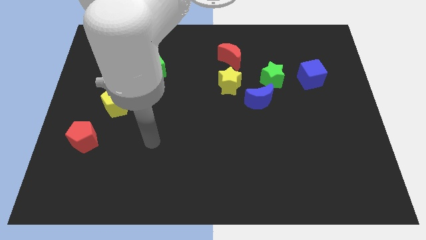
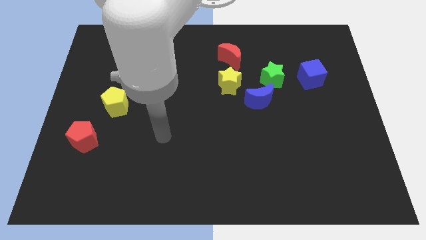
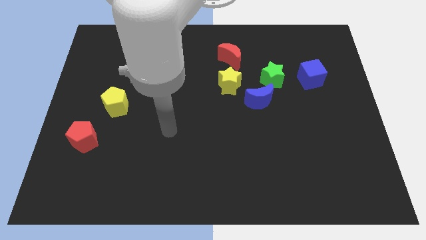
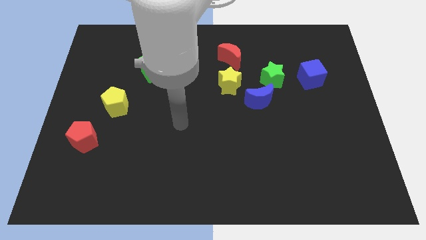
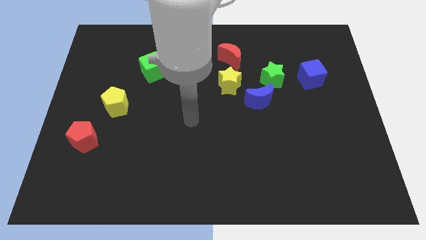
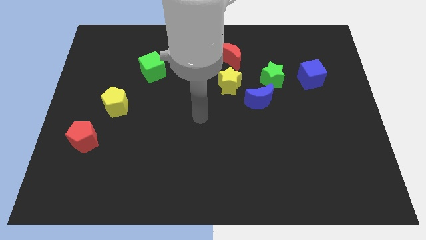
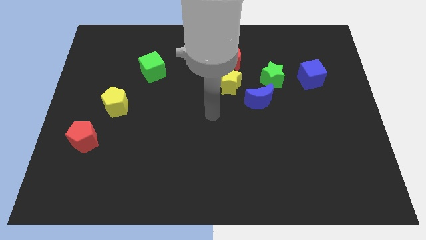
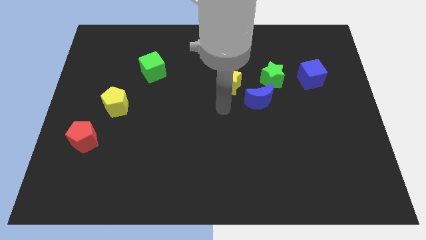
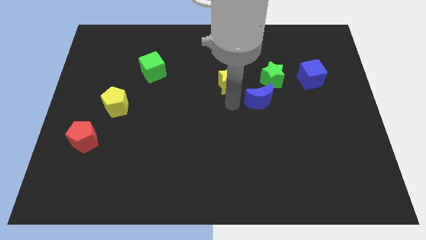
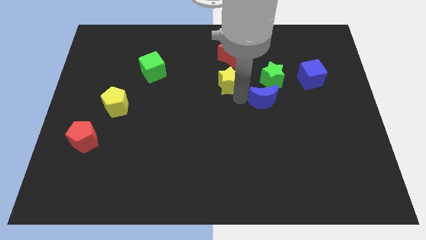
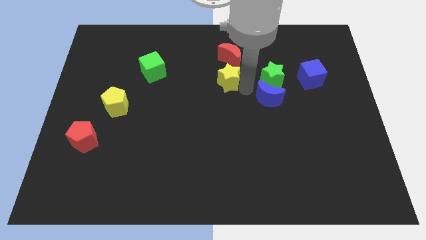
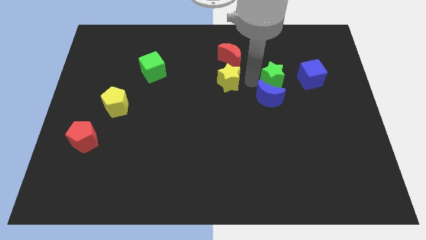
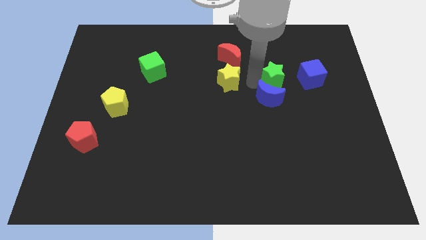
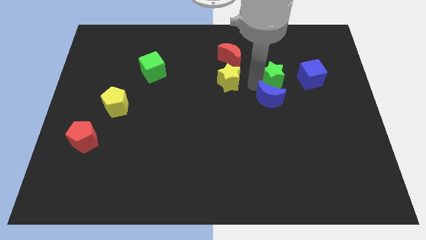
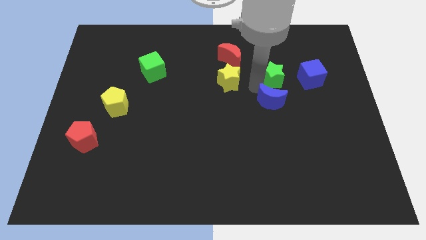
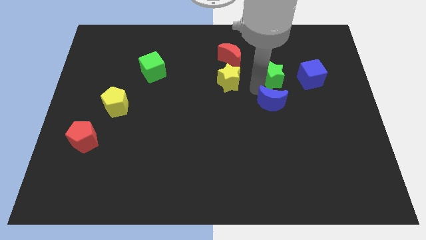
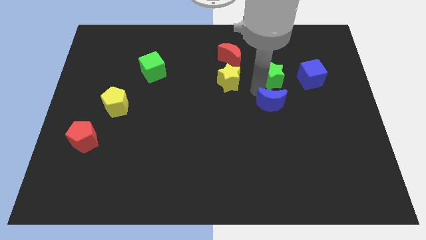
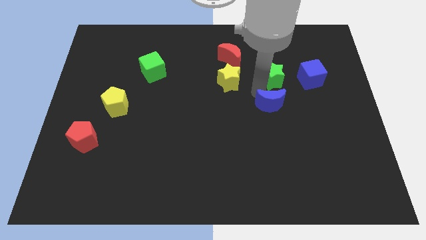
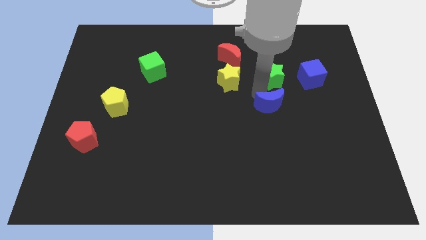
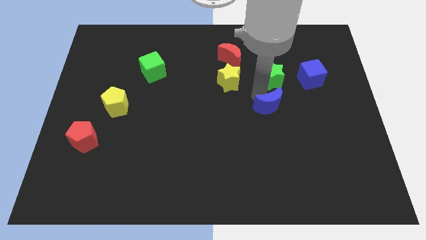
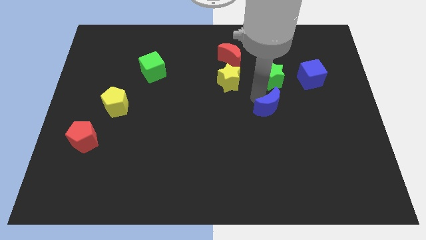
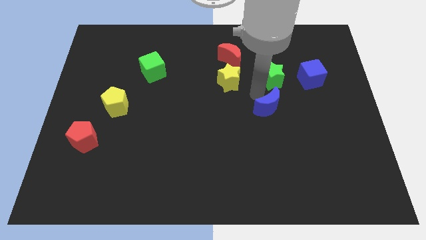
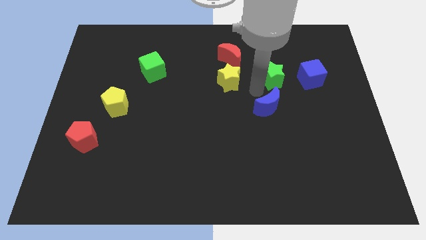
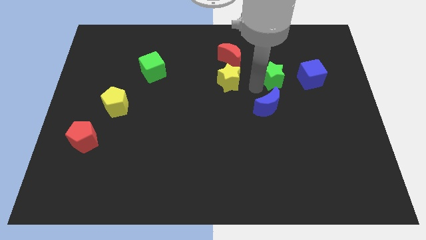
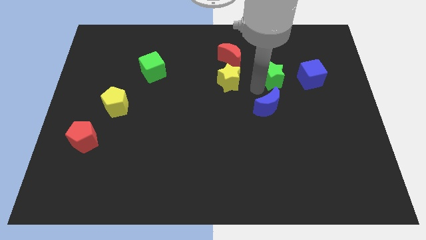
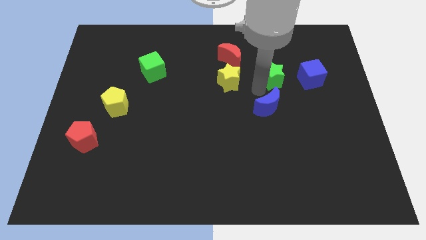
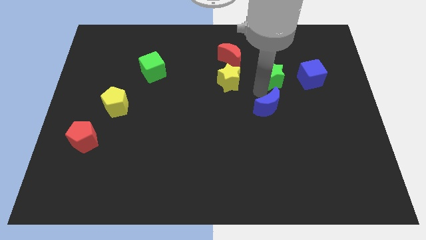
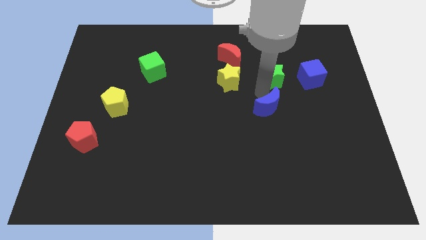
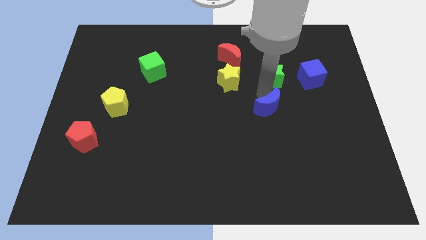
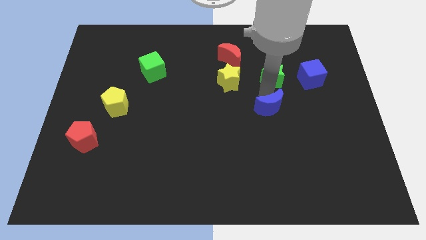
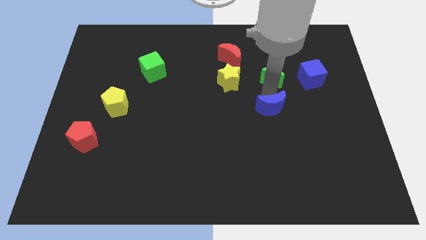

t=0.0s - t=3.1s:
separate the blue moon from the green star and yellow star

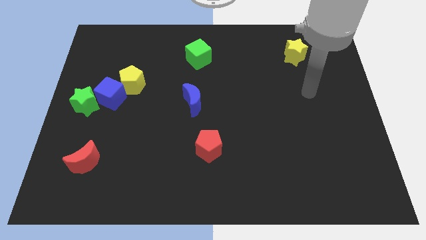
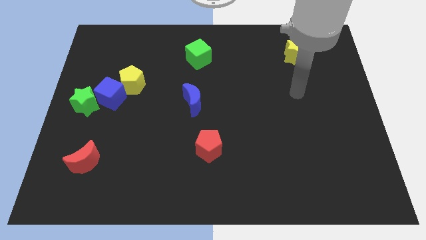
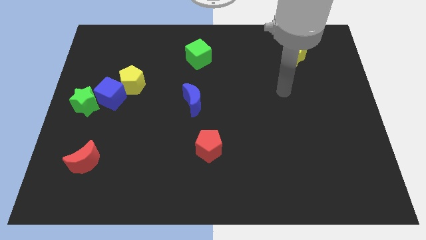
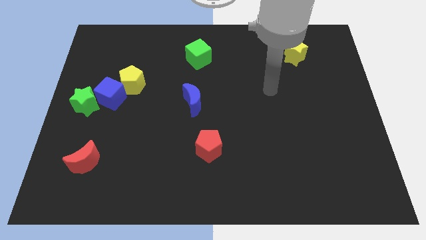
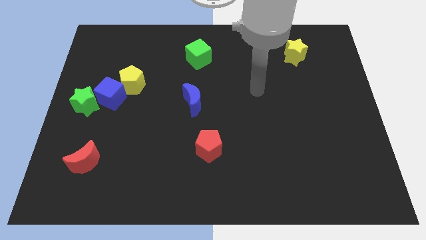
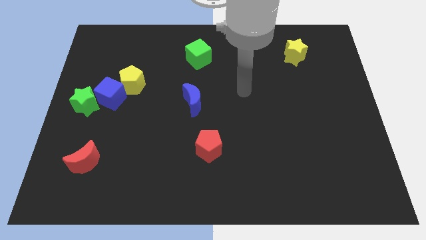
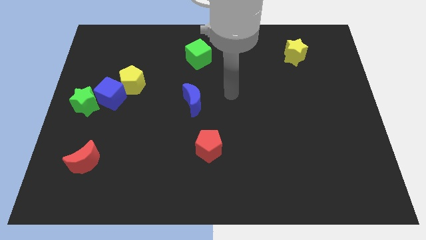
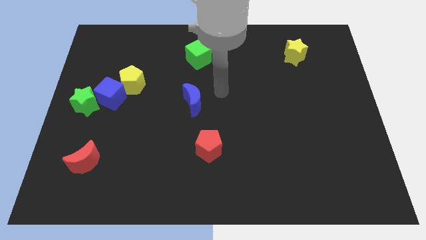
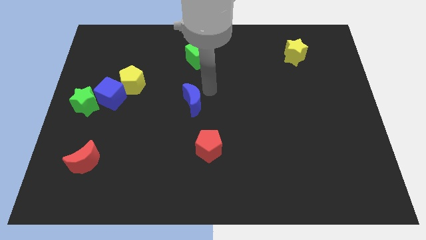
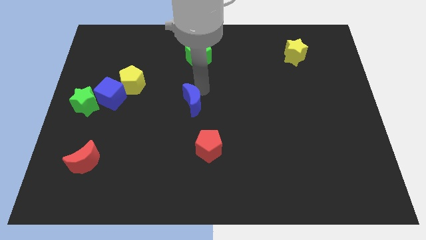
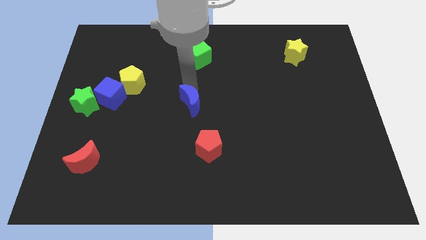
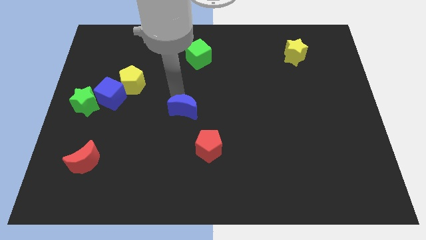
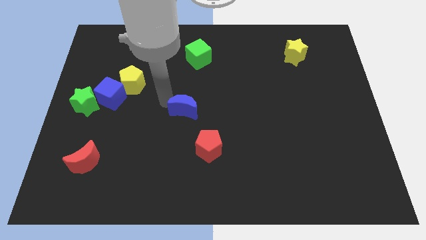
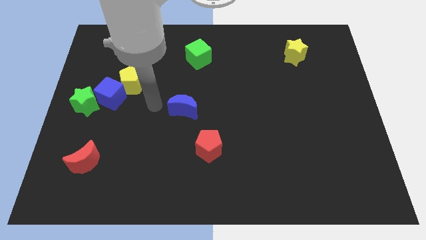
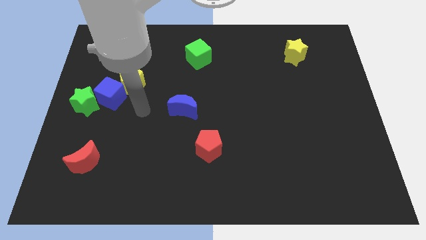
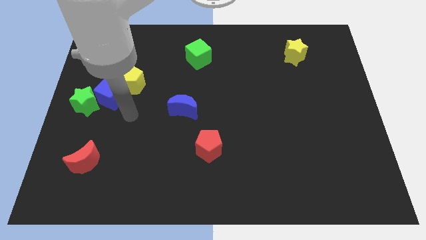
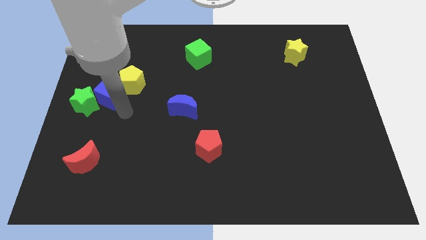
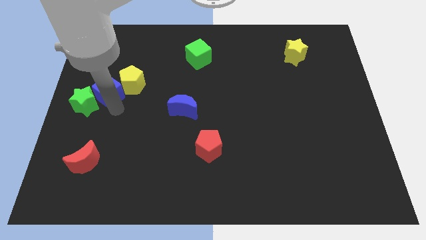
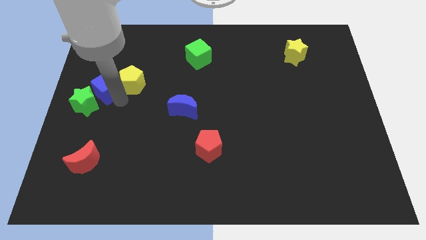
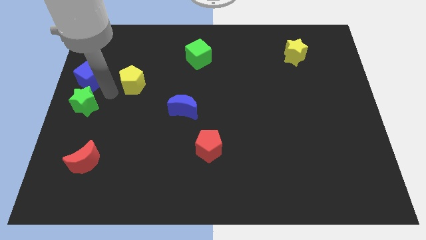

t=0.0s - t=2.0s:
move the yellow pentagon away from the blue cube

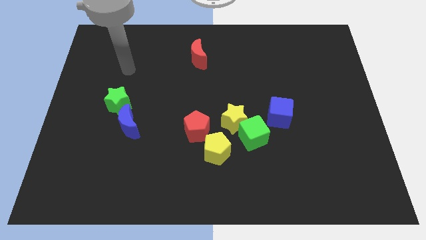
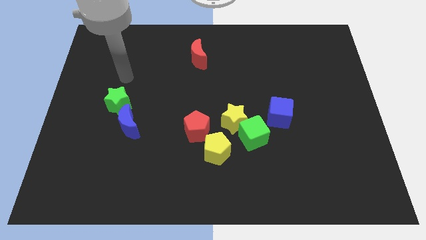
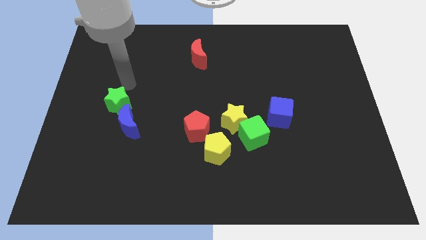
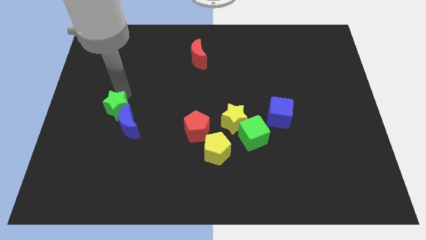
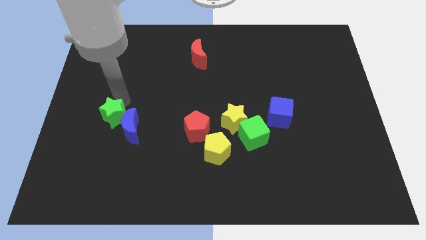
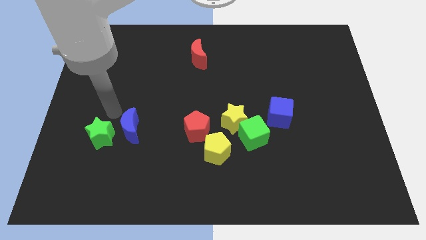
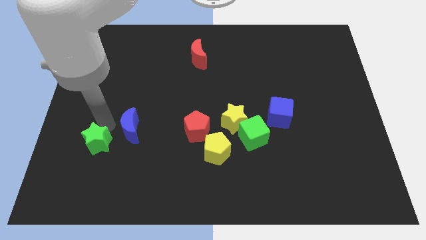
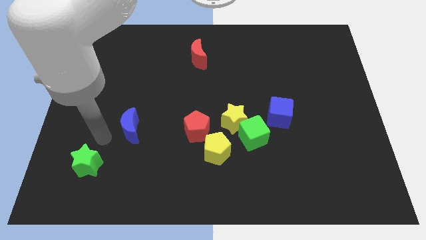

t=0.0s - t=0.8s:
pull the blue moon apart from the green star

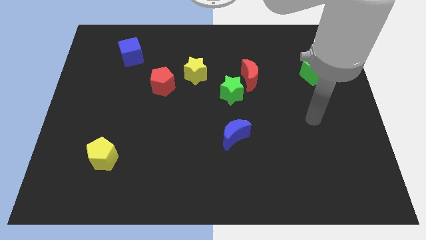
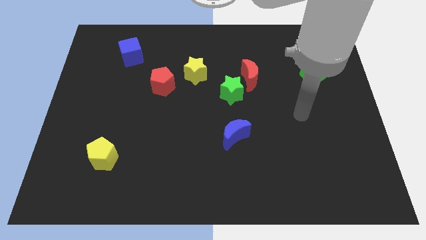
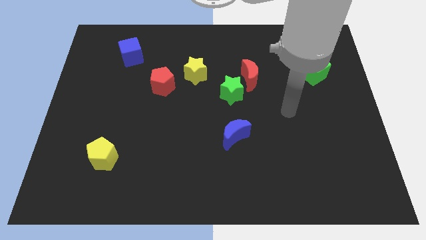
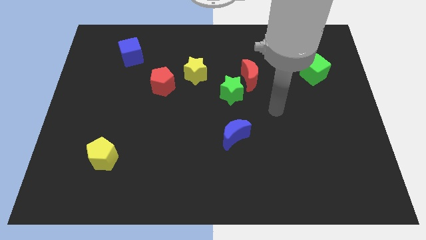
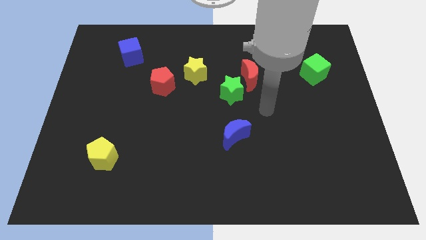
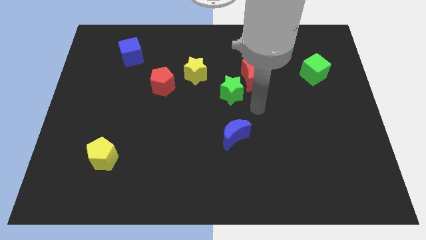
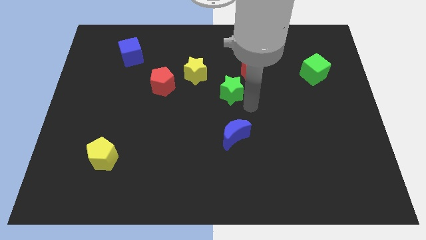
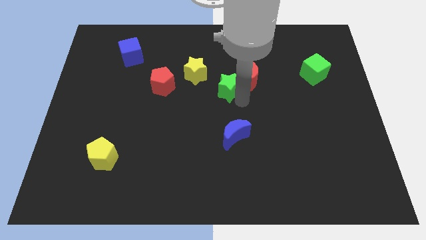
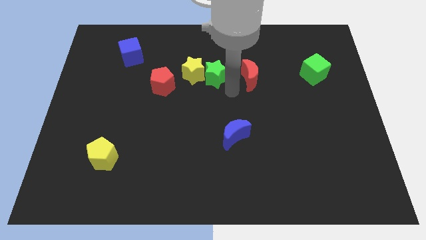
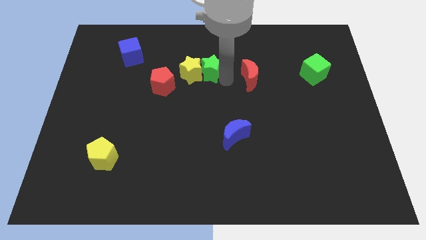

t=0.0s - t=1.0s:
pull the red moon apart from the green star

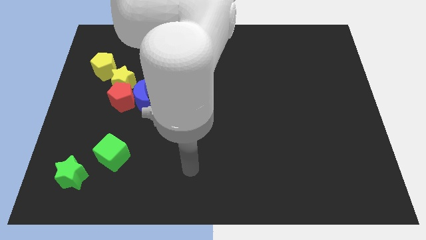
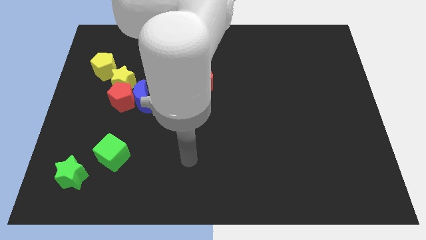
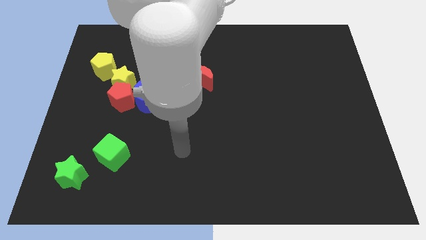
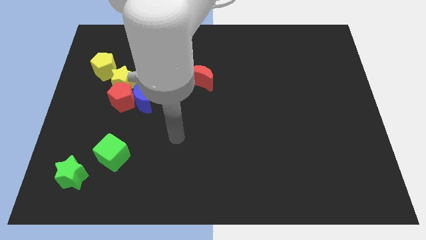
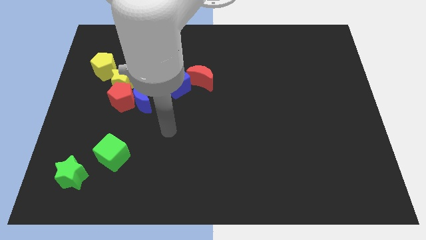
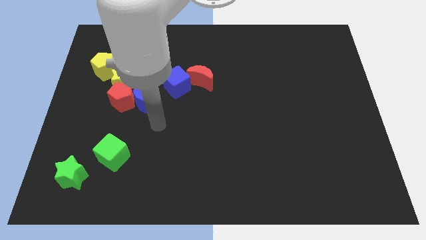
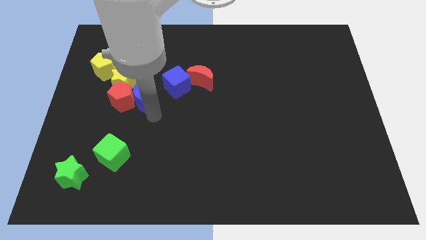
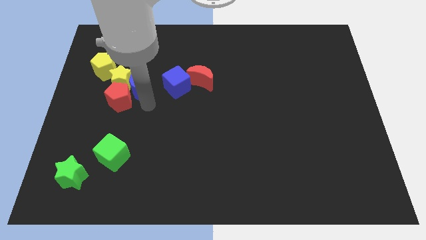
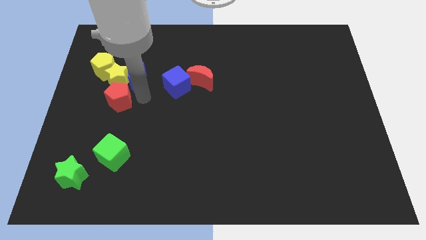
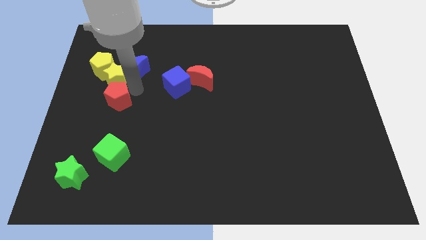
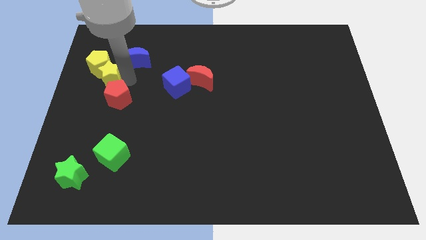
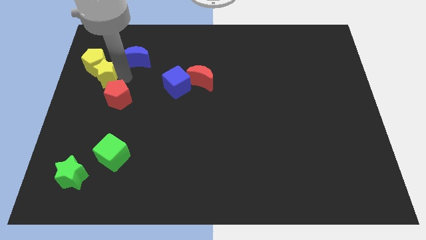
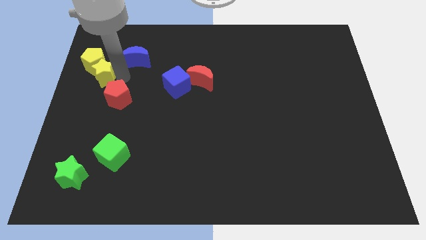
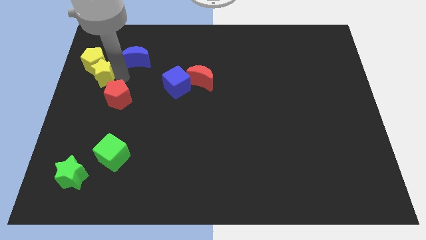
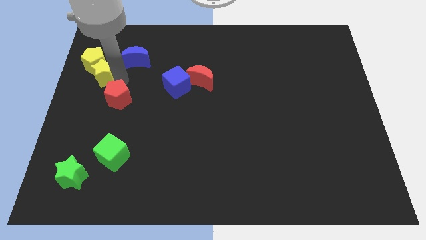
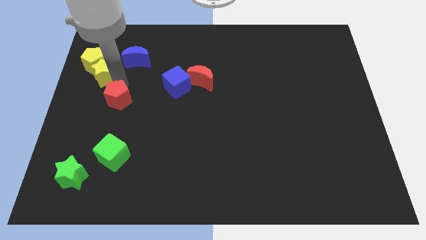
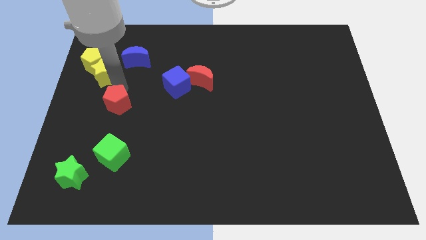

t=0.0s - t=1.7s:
pull the red pentagon apart from the blue moon and yellow star

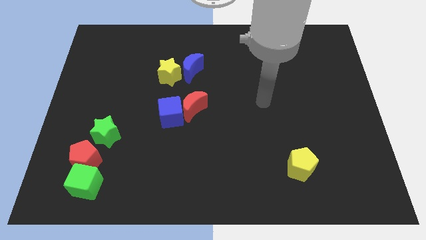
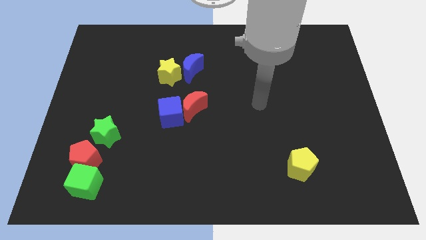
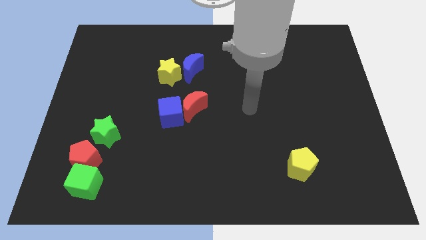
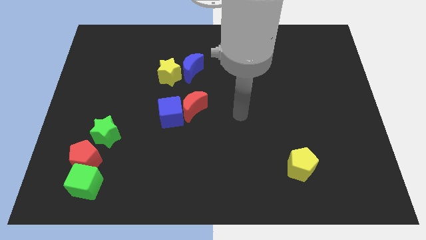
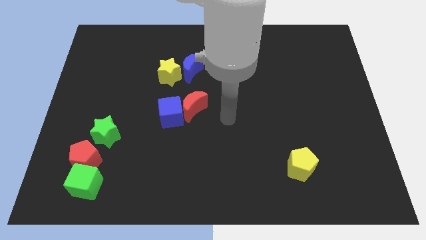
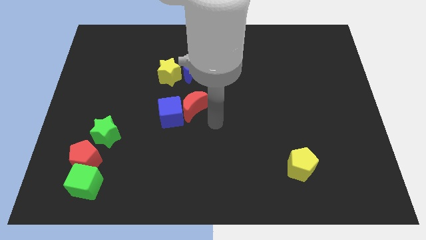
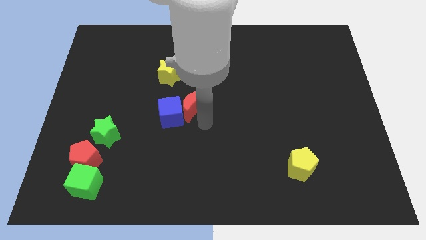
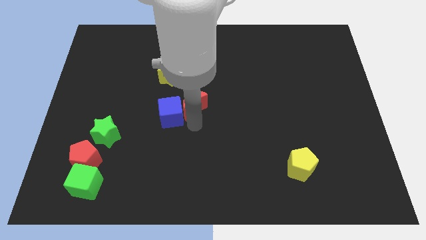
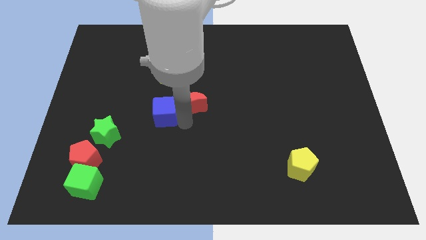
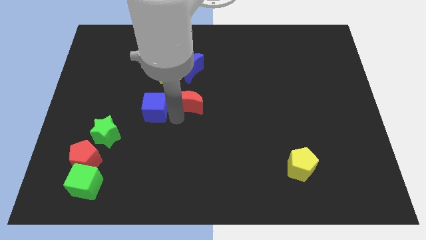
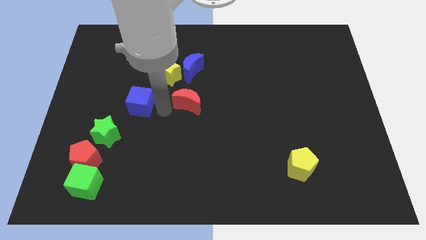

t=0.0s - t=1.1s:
separate the red moon from the blue cube
